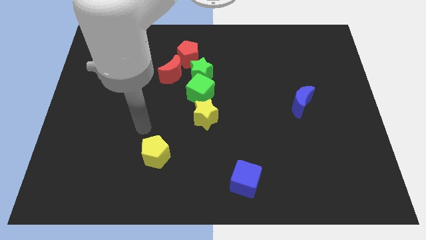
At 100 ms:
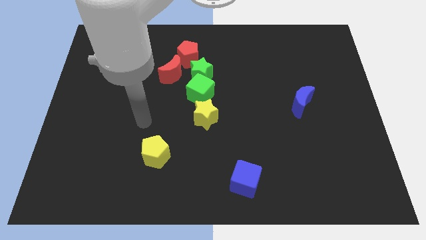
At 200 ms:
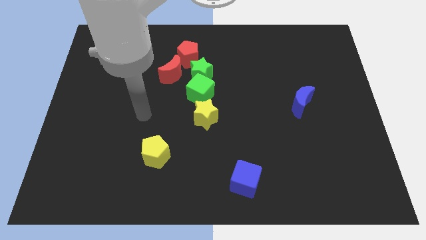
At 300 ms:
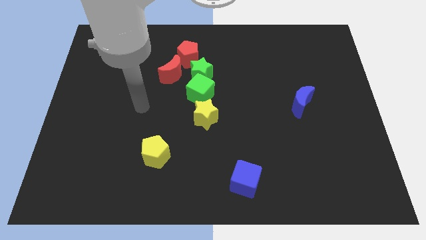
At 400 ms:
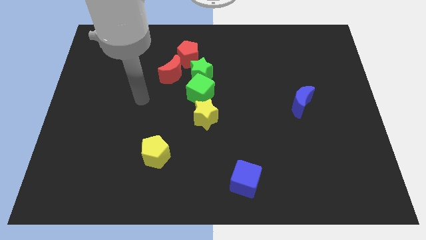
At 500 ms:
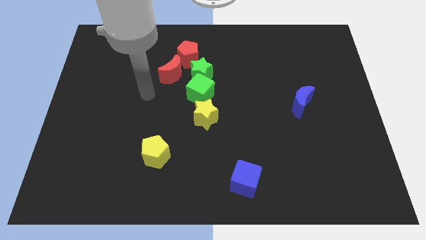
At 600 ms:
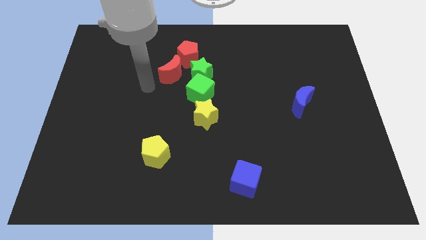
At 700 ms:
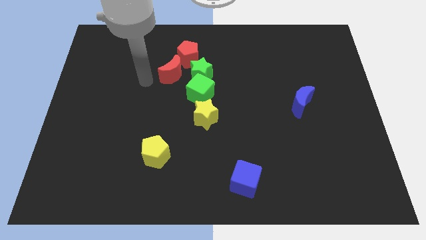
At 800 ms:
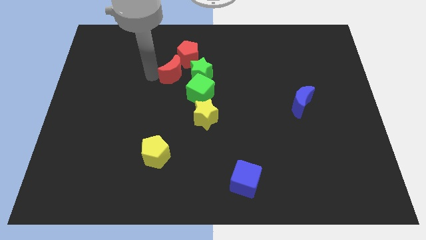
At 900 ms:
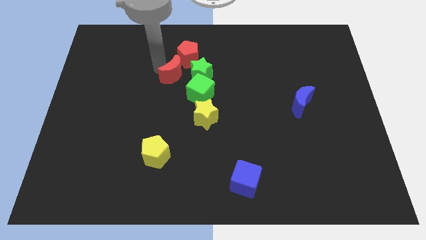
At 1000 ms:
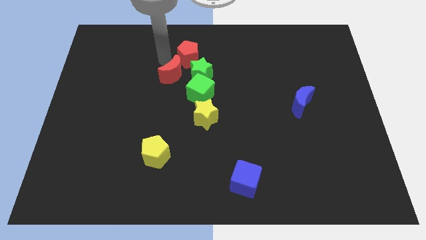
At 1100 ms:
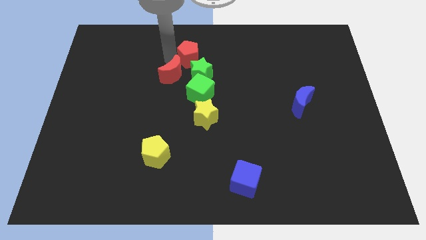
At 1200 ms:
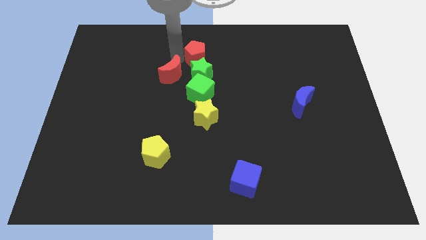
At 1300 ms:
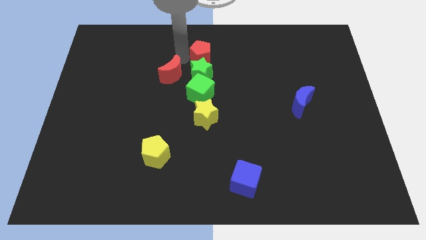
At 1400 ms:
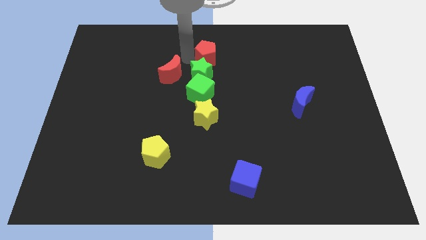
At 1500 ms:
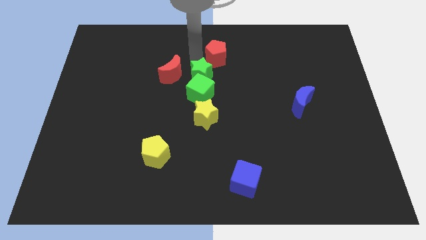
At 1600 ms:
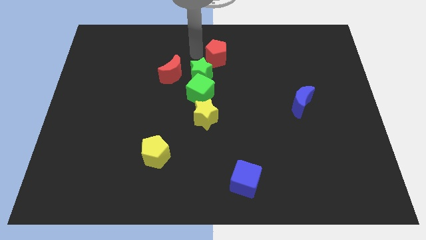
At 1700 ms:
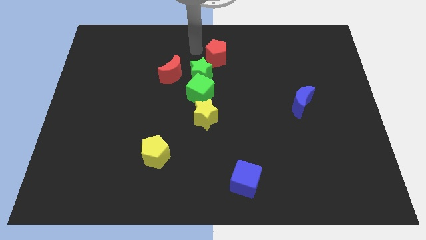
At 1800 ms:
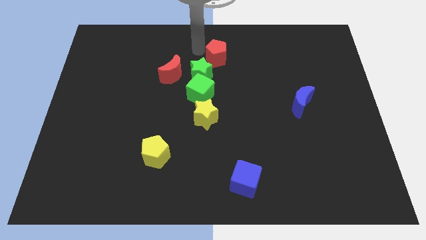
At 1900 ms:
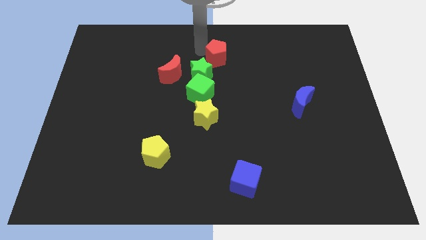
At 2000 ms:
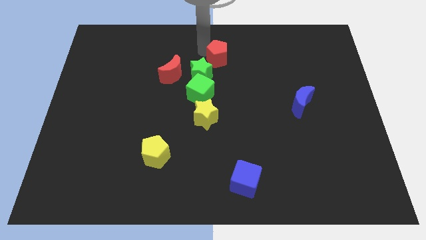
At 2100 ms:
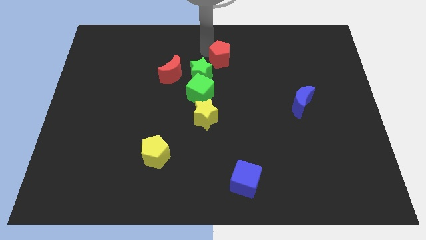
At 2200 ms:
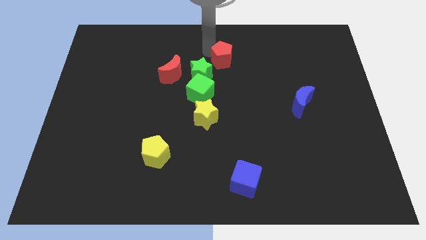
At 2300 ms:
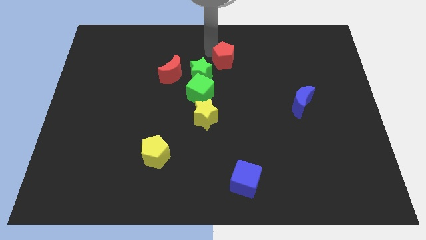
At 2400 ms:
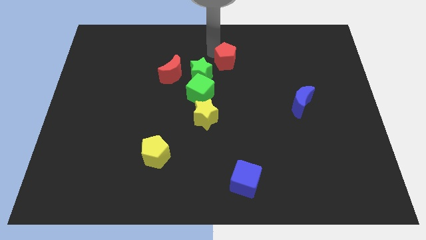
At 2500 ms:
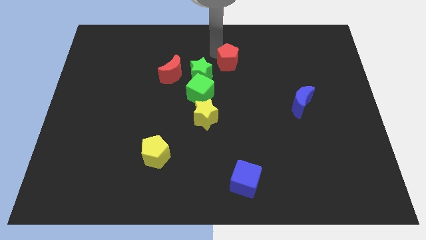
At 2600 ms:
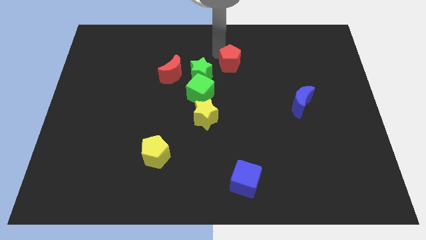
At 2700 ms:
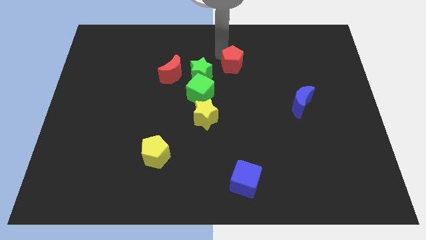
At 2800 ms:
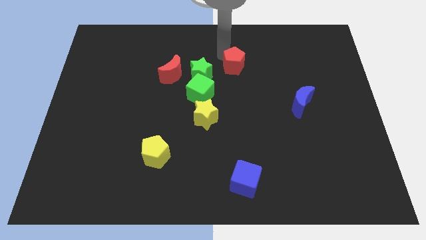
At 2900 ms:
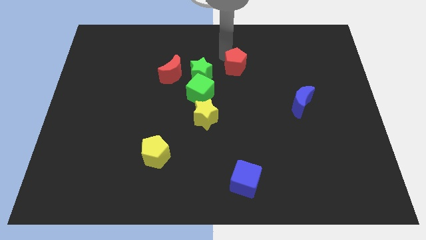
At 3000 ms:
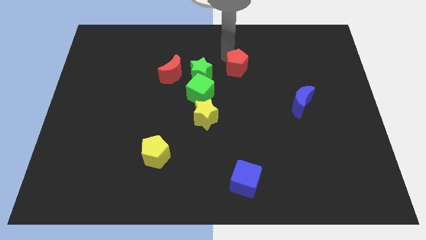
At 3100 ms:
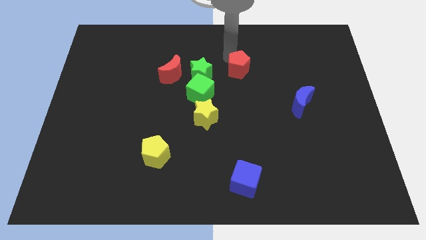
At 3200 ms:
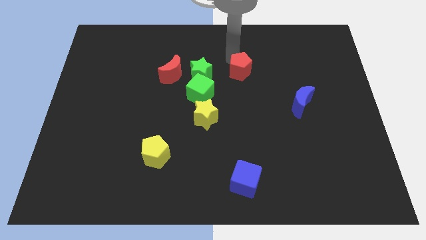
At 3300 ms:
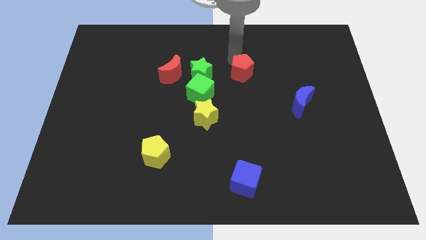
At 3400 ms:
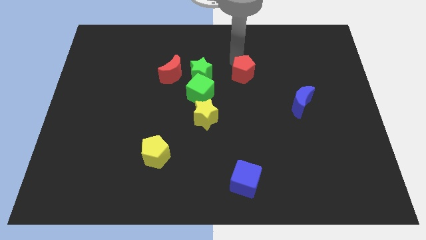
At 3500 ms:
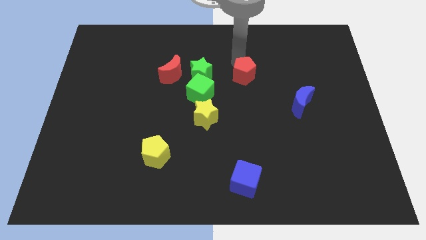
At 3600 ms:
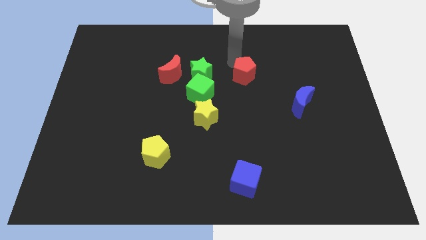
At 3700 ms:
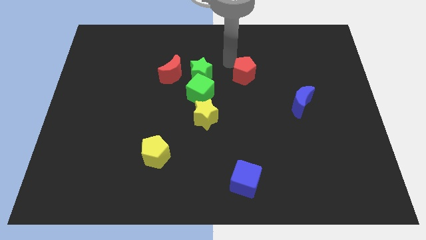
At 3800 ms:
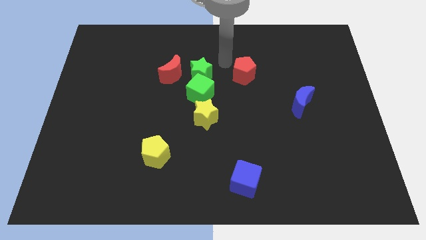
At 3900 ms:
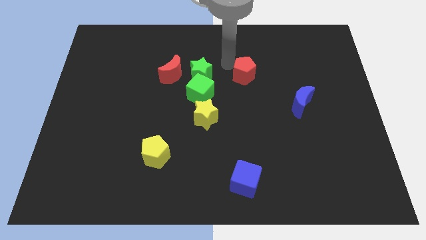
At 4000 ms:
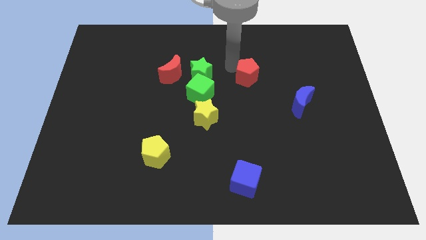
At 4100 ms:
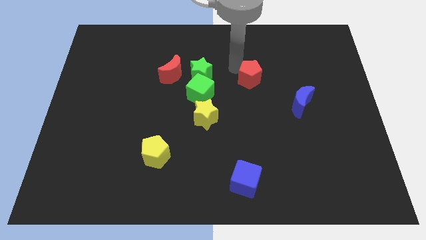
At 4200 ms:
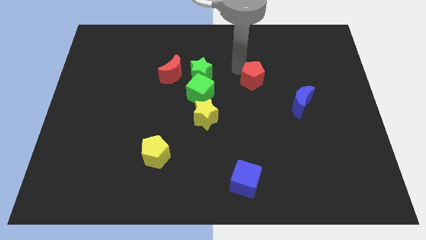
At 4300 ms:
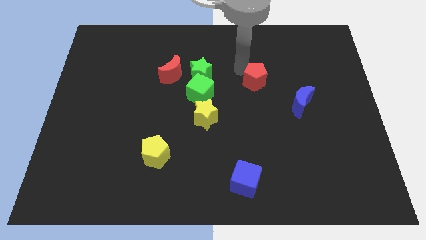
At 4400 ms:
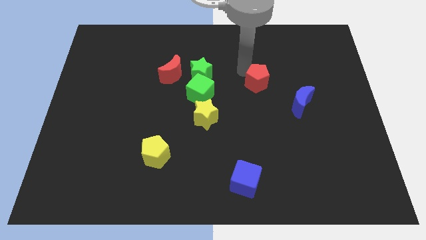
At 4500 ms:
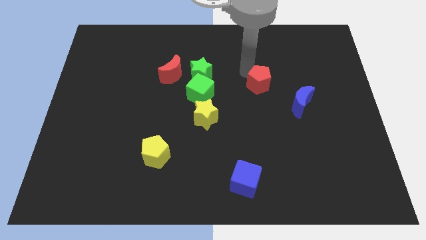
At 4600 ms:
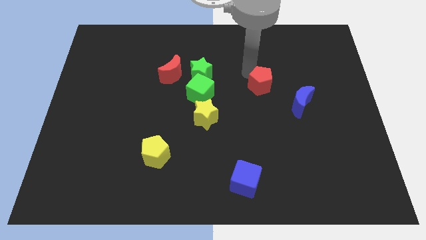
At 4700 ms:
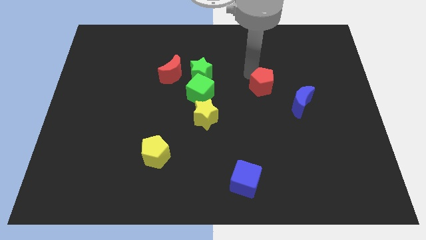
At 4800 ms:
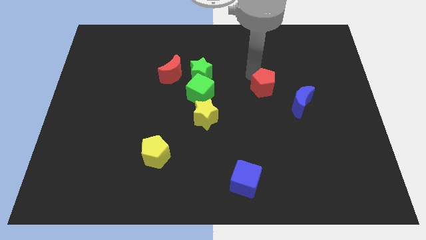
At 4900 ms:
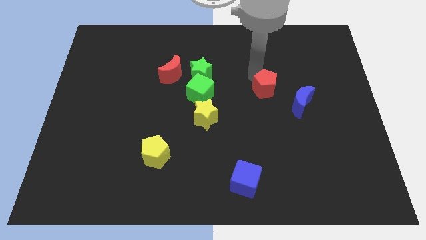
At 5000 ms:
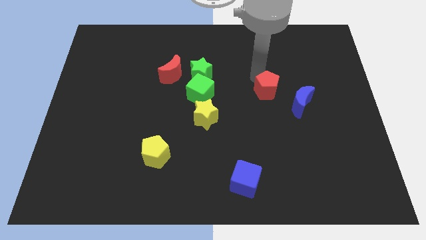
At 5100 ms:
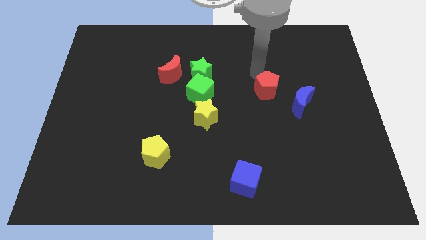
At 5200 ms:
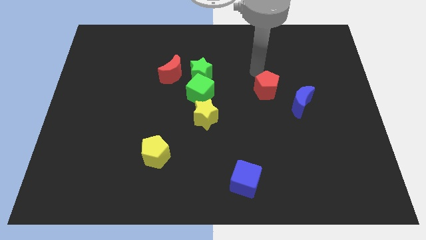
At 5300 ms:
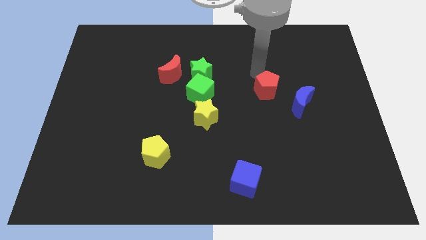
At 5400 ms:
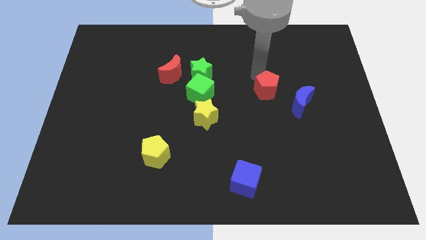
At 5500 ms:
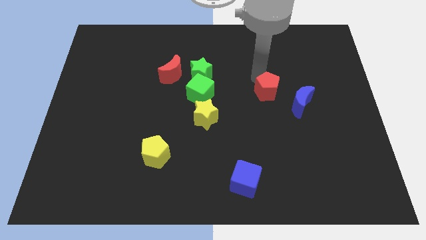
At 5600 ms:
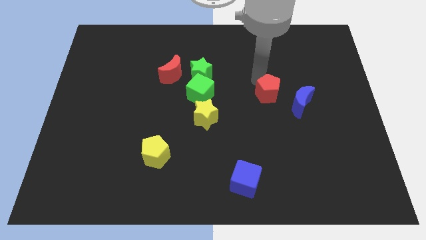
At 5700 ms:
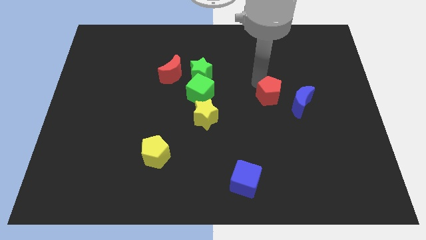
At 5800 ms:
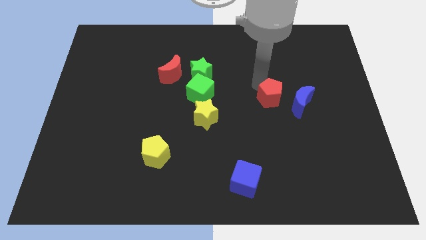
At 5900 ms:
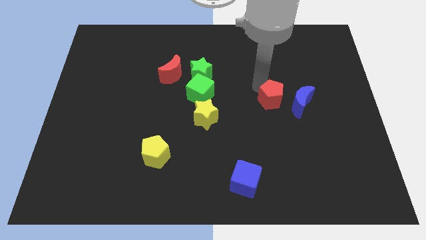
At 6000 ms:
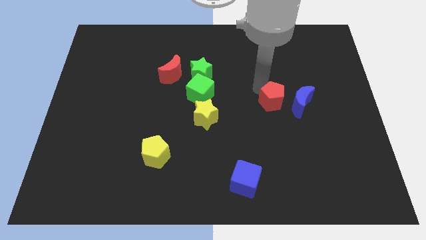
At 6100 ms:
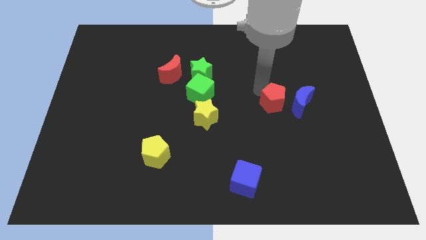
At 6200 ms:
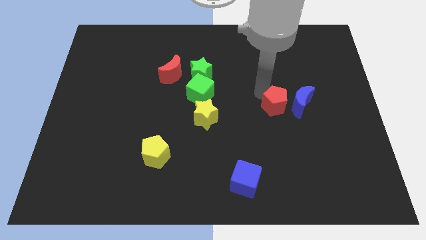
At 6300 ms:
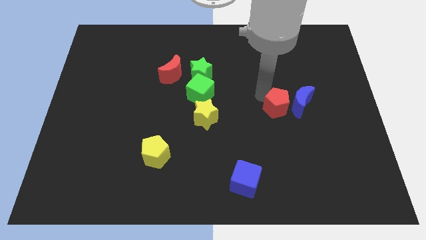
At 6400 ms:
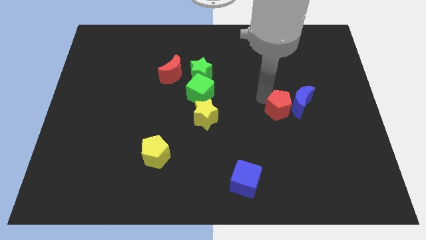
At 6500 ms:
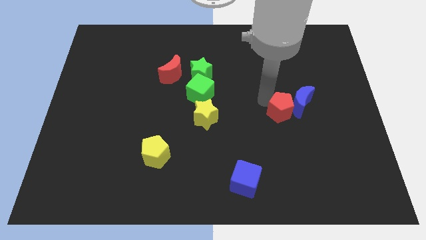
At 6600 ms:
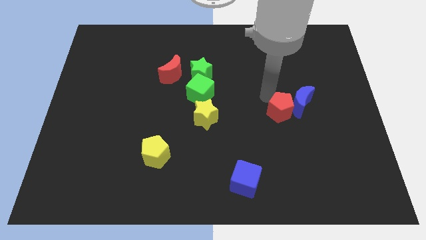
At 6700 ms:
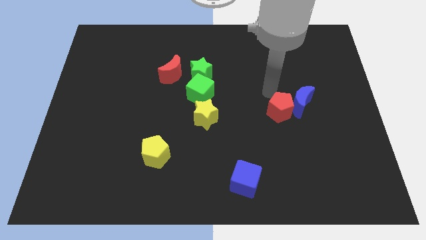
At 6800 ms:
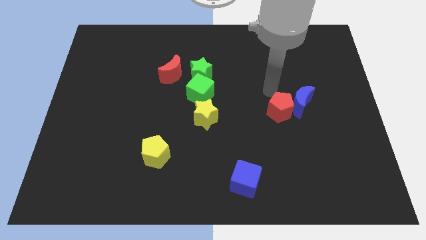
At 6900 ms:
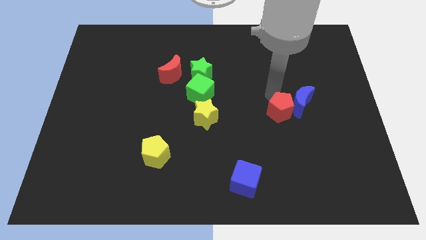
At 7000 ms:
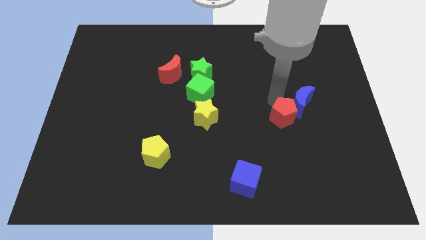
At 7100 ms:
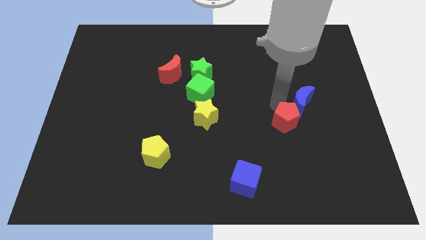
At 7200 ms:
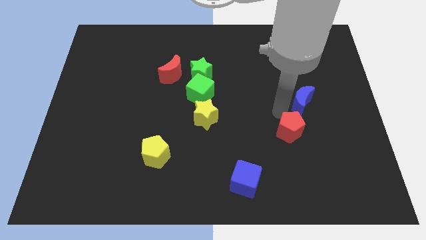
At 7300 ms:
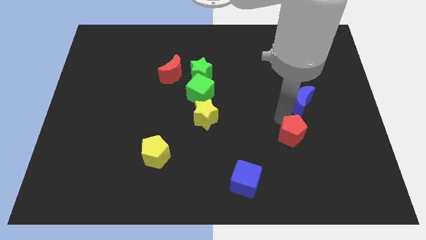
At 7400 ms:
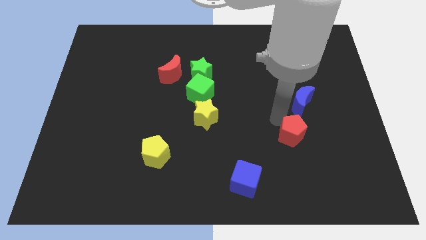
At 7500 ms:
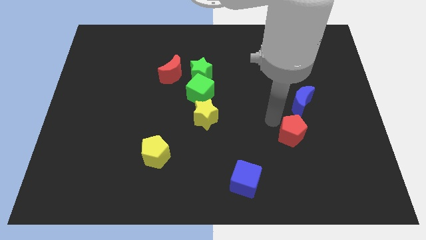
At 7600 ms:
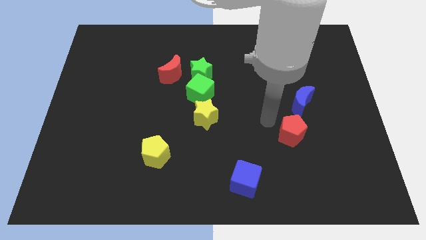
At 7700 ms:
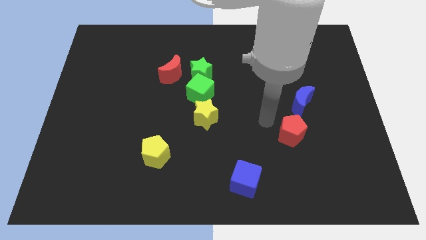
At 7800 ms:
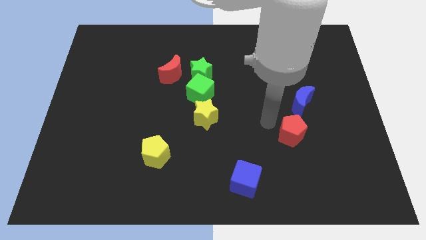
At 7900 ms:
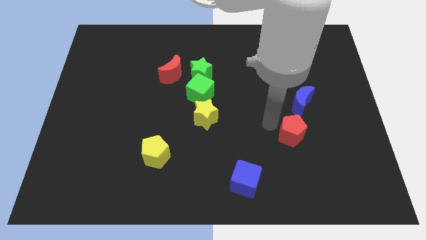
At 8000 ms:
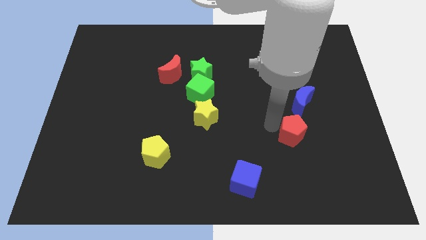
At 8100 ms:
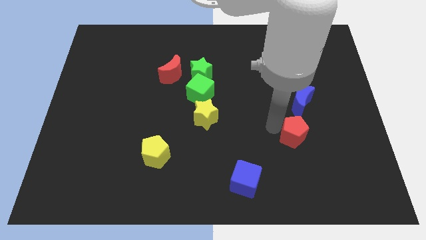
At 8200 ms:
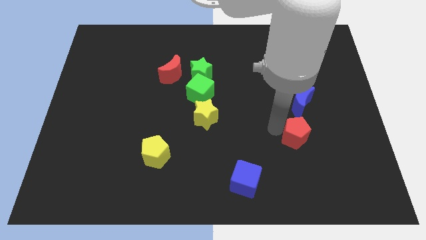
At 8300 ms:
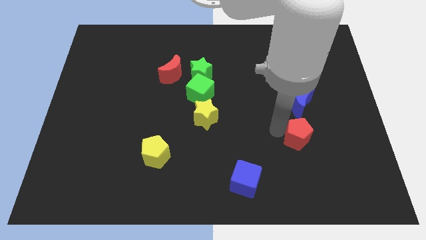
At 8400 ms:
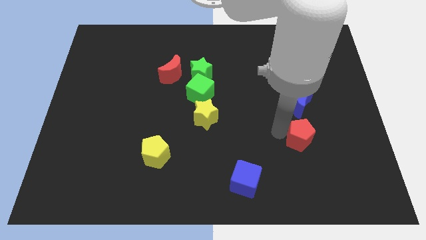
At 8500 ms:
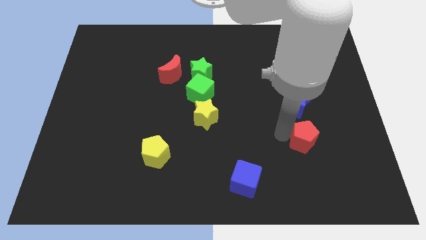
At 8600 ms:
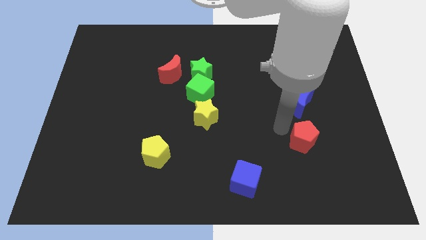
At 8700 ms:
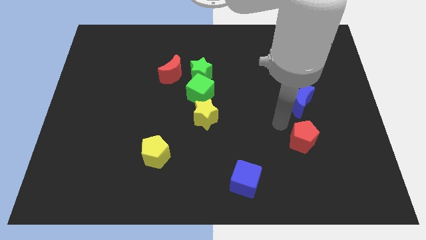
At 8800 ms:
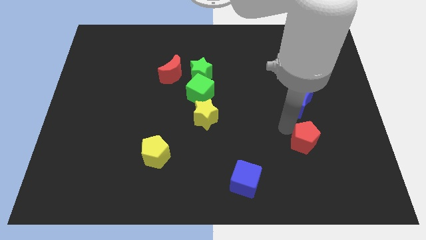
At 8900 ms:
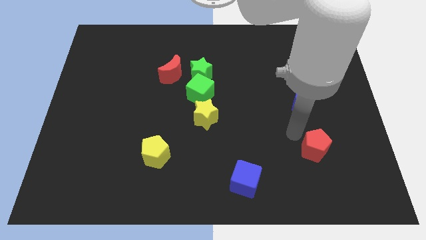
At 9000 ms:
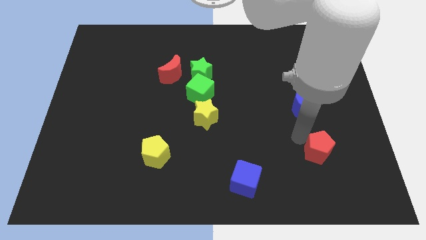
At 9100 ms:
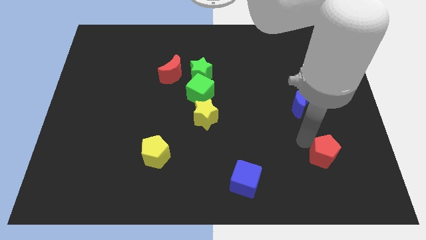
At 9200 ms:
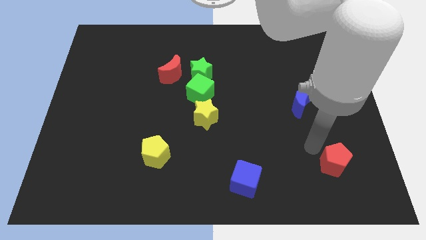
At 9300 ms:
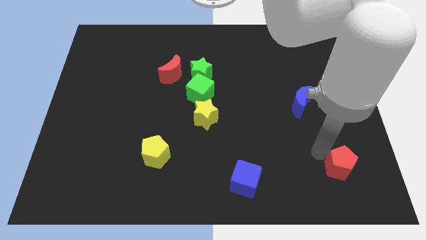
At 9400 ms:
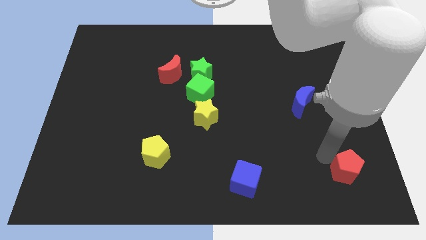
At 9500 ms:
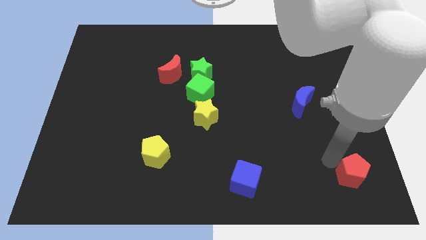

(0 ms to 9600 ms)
slide the red pentagon to the bottom right
